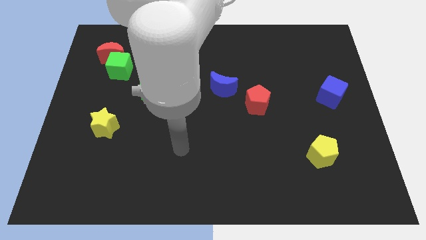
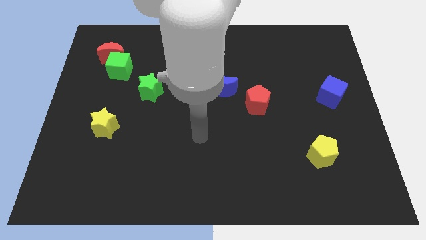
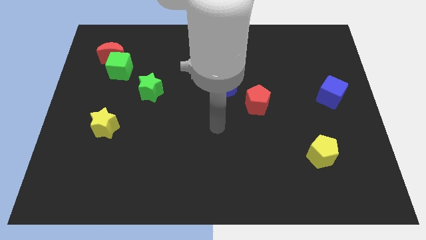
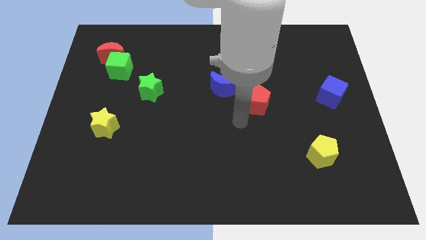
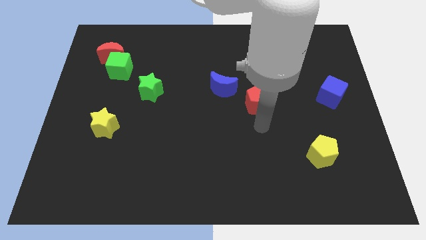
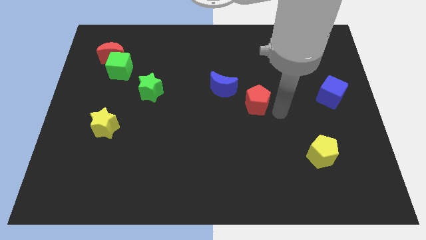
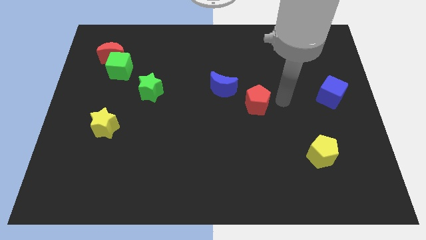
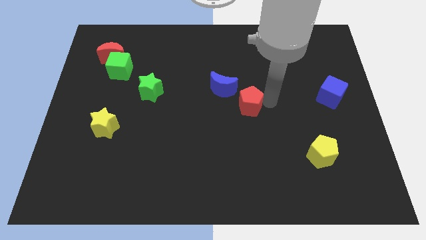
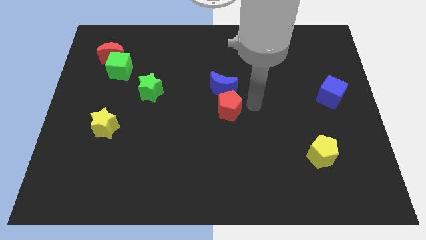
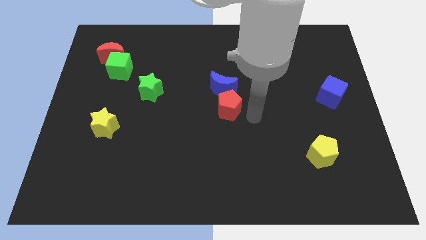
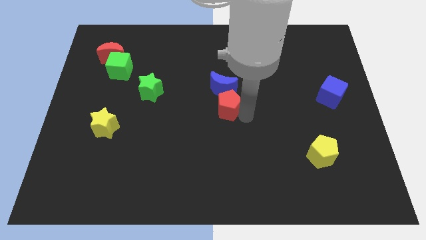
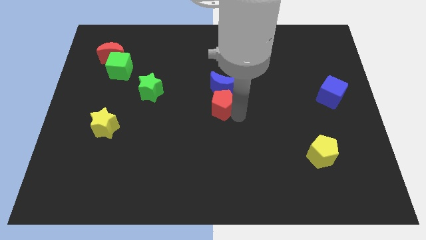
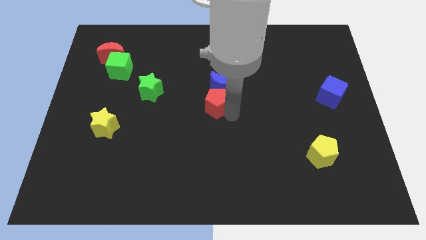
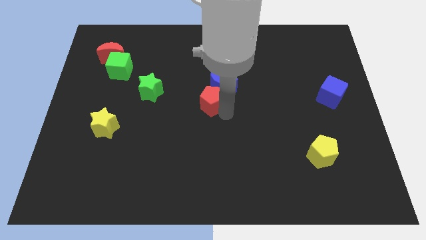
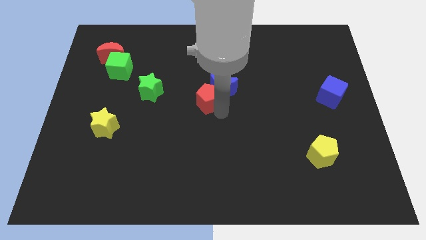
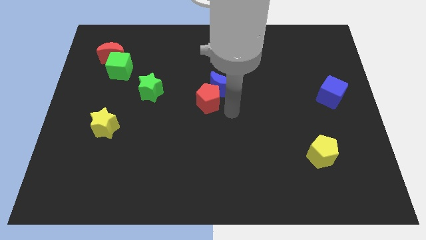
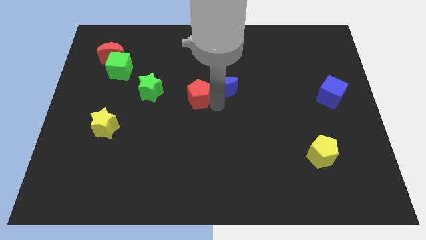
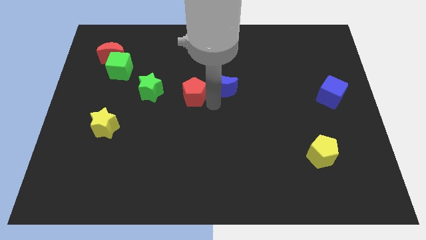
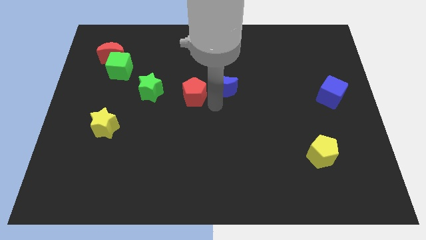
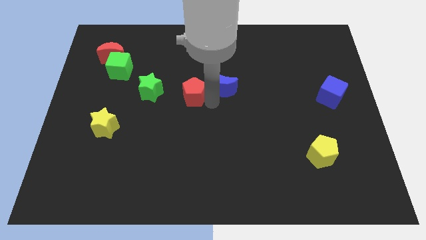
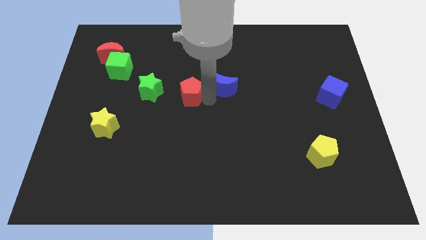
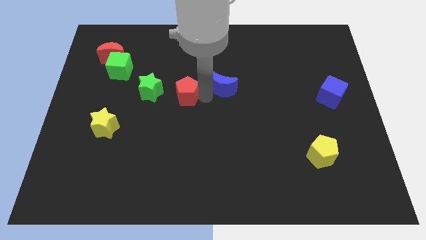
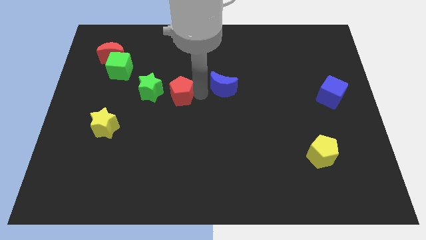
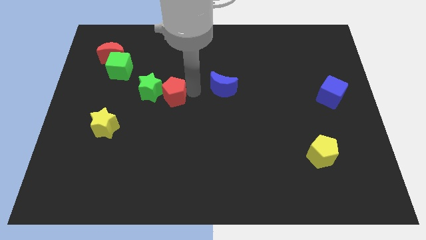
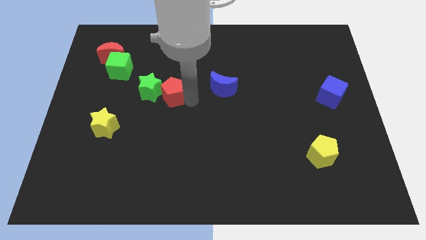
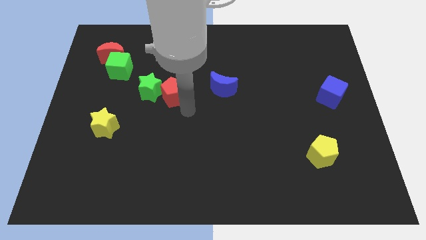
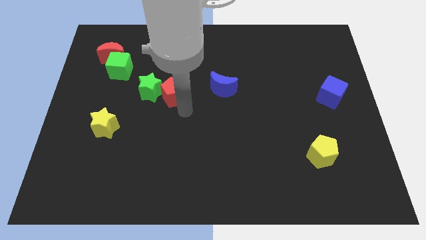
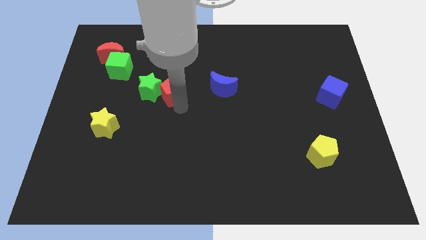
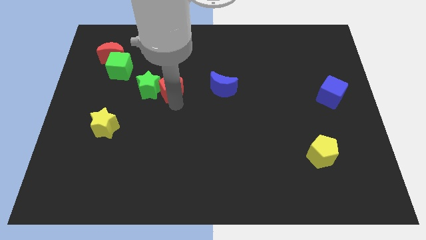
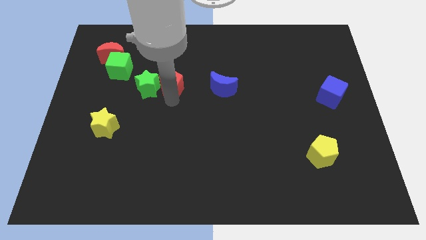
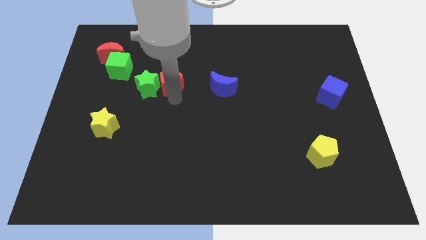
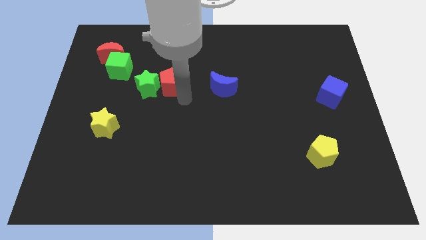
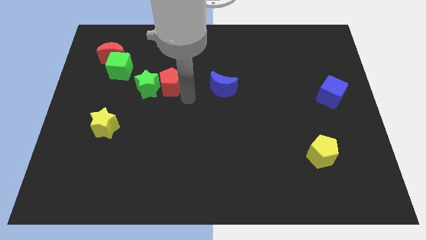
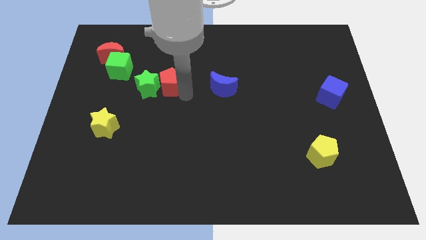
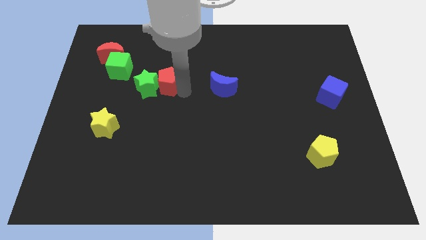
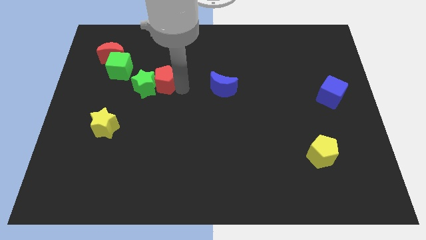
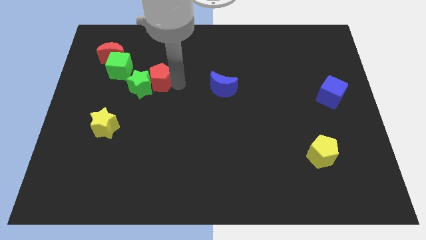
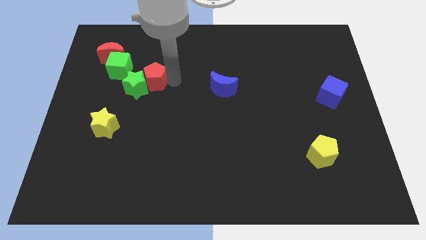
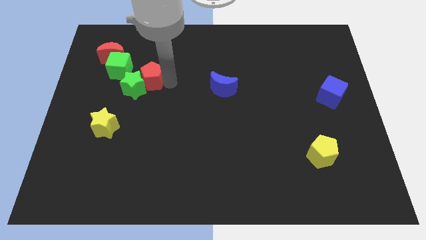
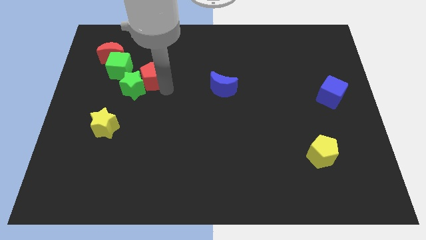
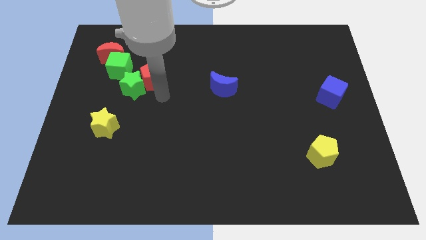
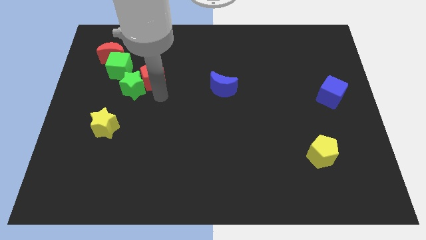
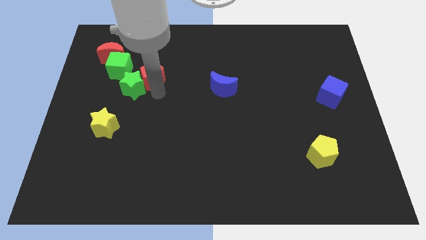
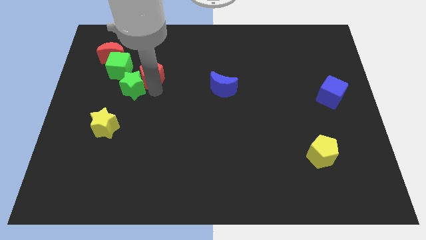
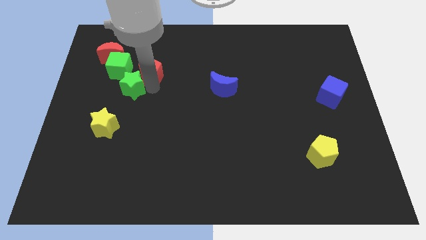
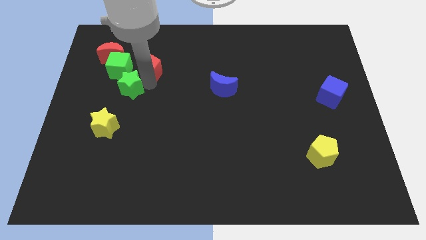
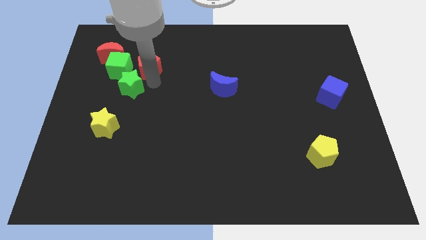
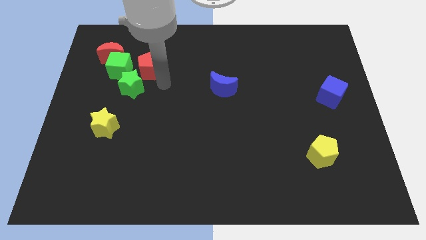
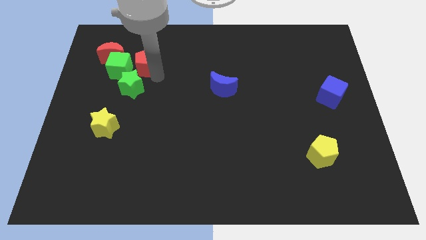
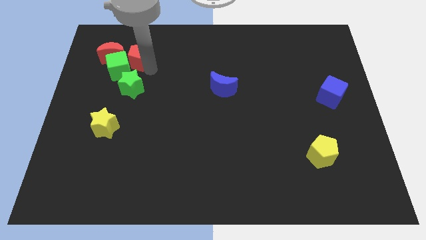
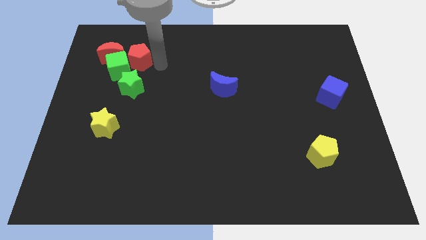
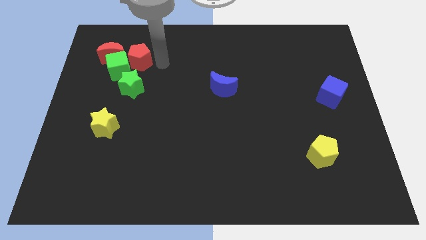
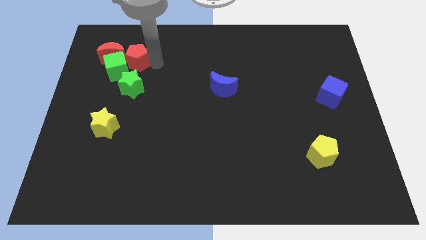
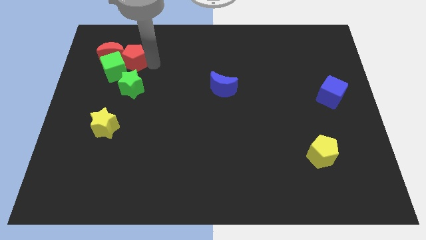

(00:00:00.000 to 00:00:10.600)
move the red pentagon next to the red moon
